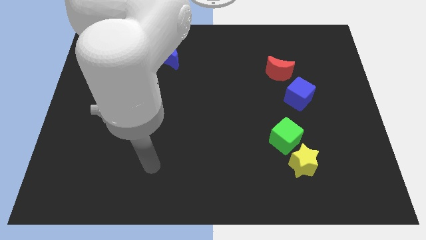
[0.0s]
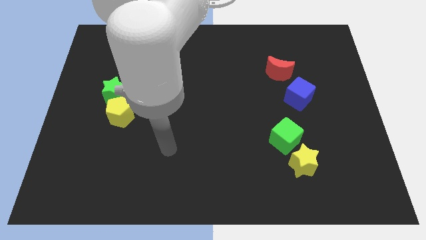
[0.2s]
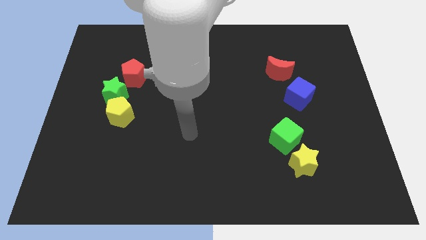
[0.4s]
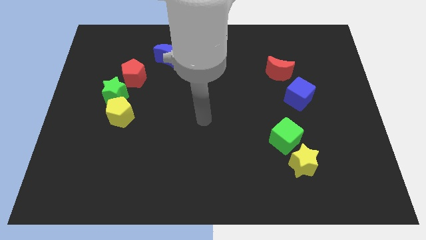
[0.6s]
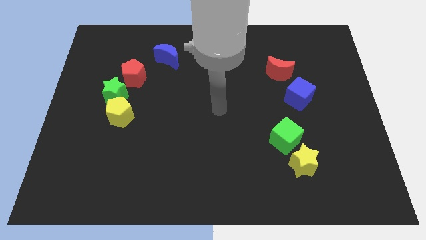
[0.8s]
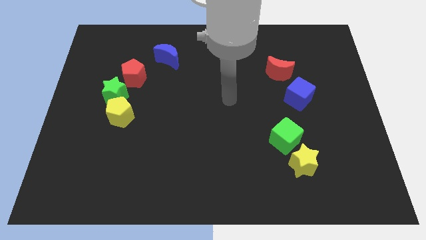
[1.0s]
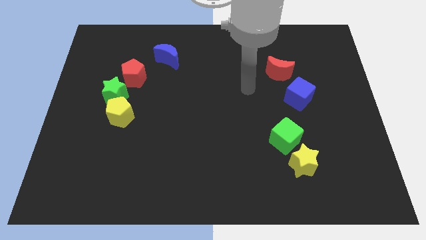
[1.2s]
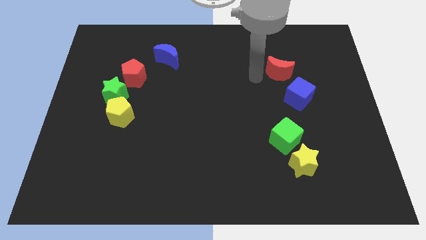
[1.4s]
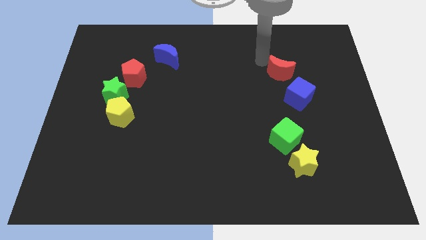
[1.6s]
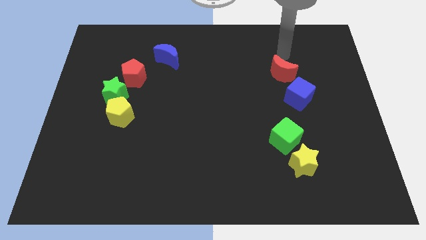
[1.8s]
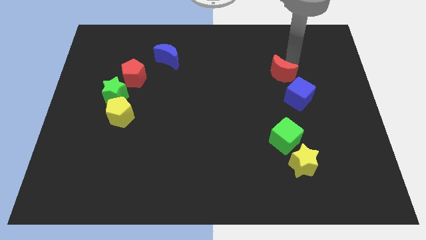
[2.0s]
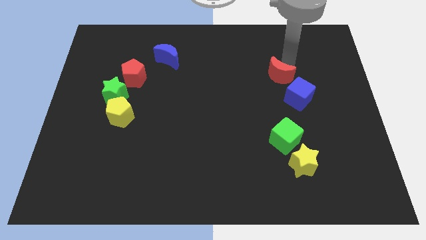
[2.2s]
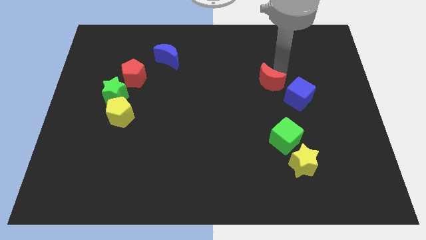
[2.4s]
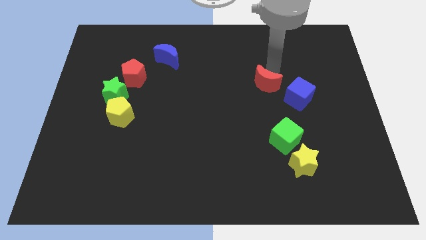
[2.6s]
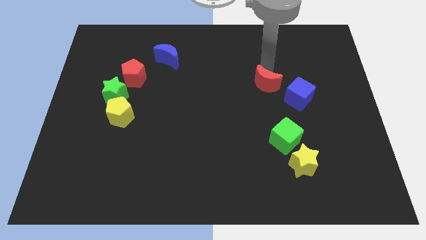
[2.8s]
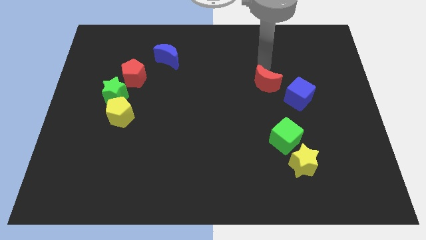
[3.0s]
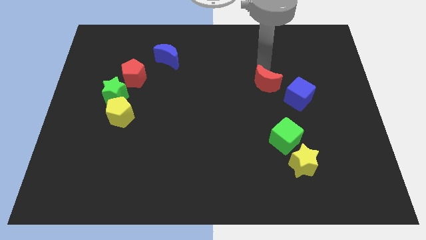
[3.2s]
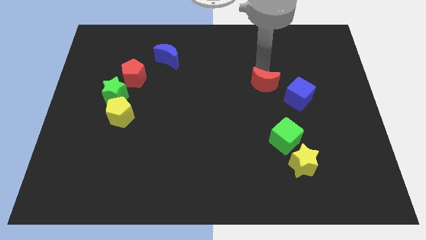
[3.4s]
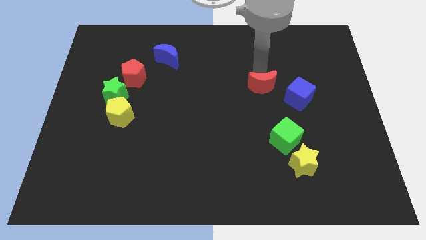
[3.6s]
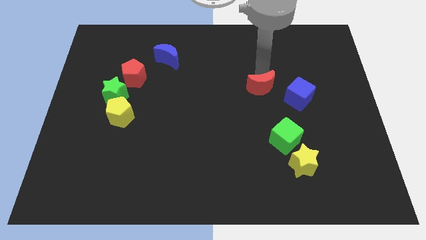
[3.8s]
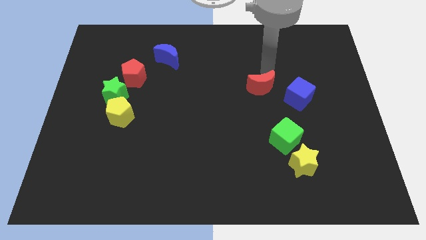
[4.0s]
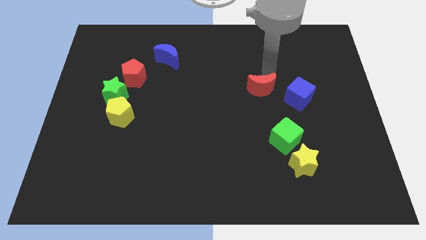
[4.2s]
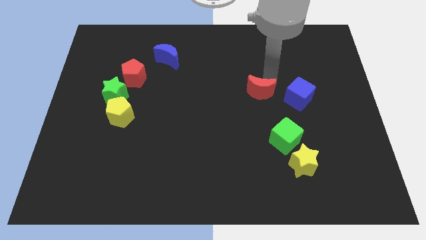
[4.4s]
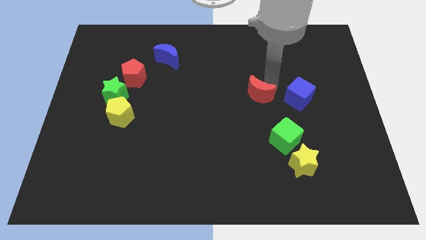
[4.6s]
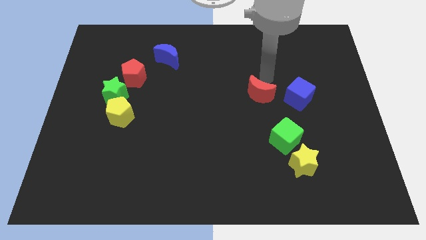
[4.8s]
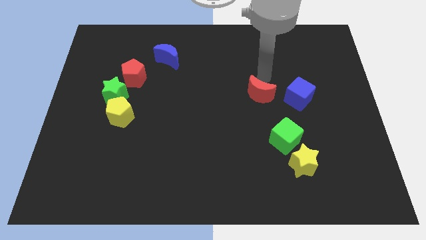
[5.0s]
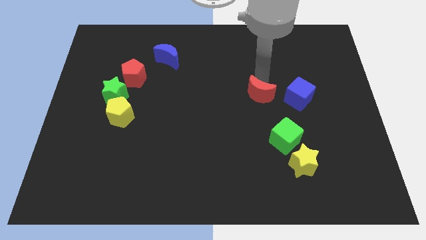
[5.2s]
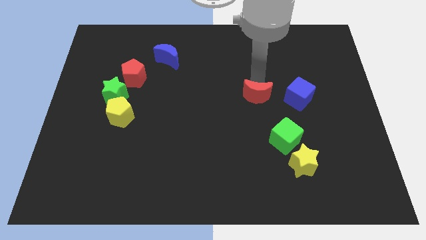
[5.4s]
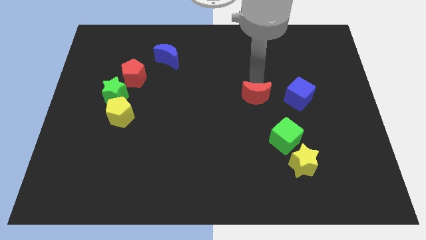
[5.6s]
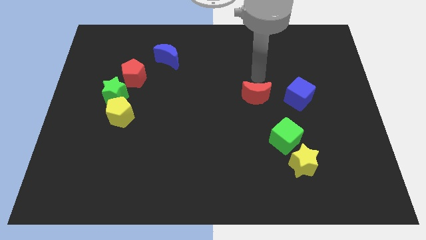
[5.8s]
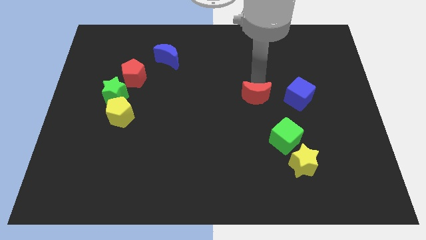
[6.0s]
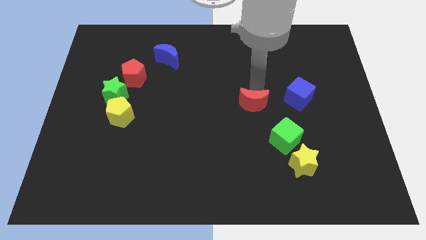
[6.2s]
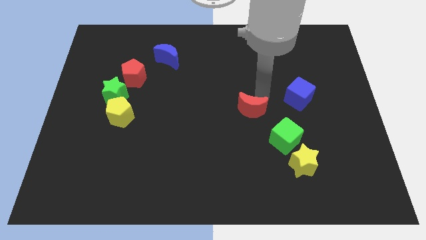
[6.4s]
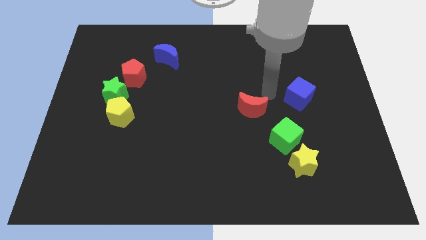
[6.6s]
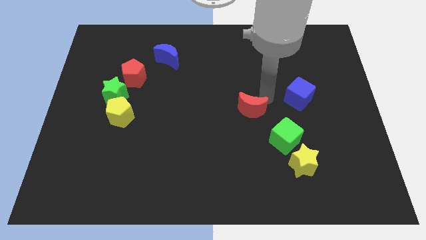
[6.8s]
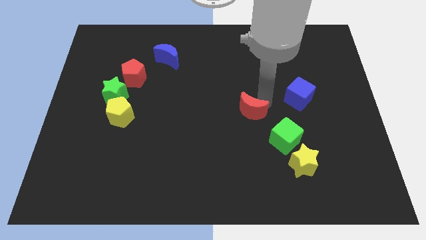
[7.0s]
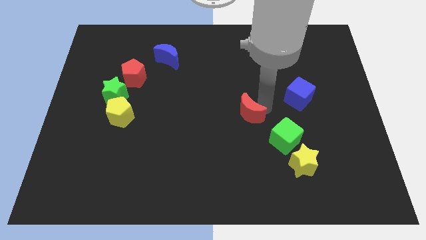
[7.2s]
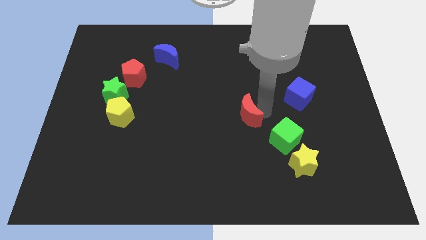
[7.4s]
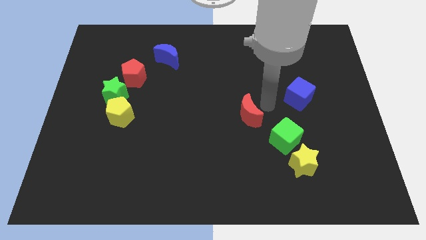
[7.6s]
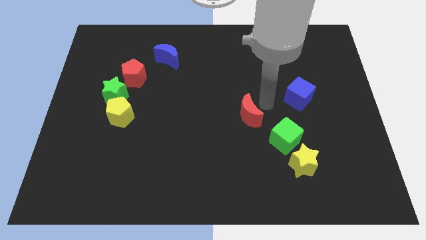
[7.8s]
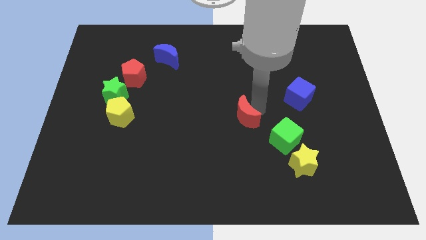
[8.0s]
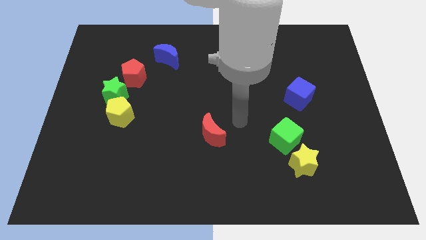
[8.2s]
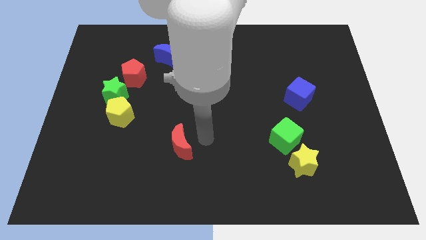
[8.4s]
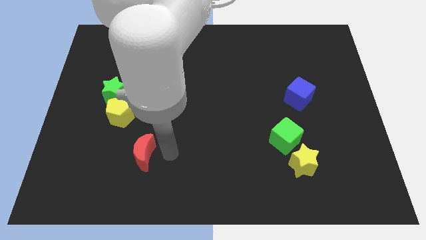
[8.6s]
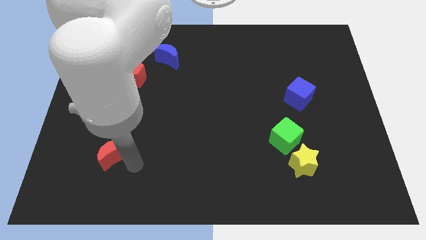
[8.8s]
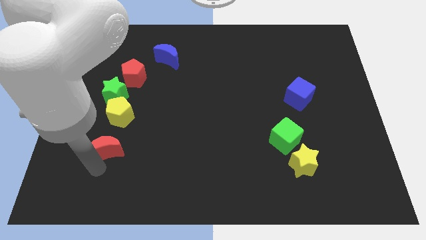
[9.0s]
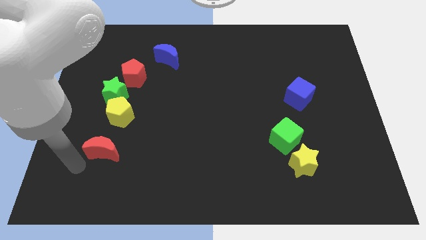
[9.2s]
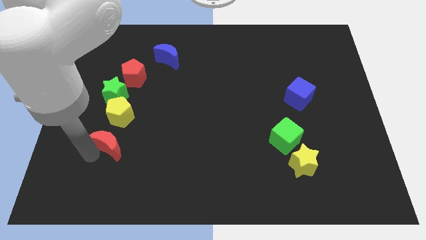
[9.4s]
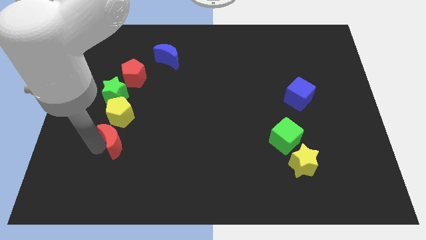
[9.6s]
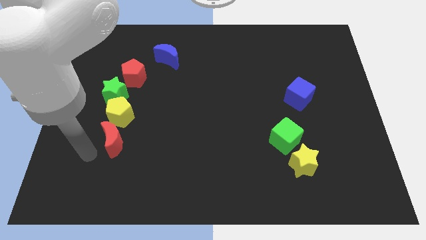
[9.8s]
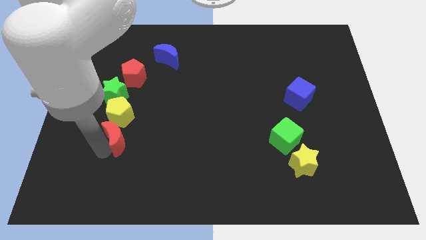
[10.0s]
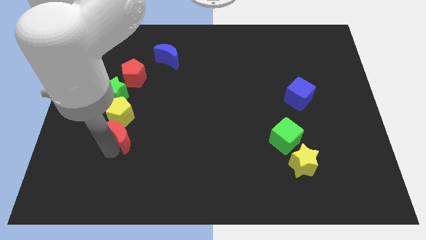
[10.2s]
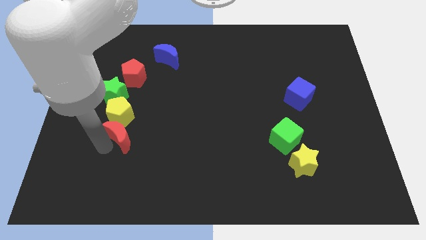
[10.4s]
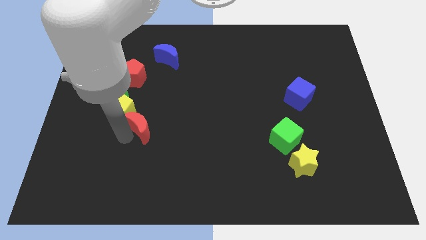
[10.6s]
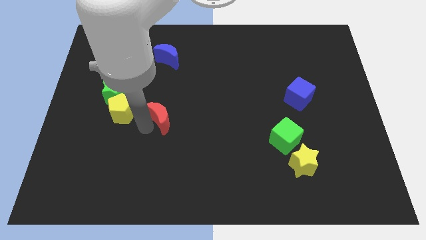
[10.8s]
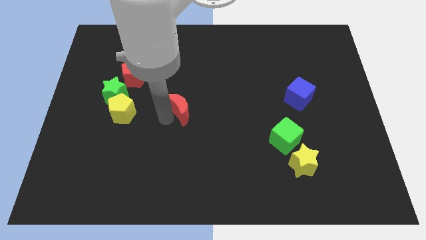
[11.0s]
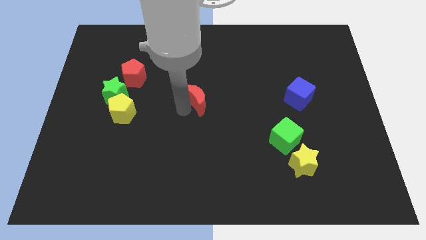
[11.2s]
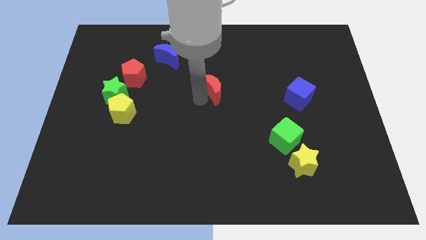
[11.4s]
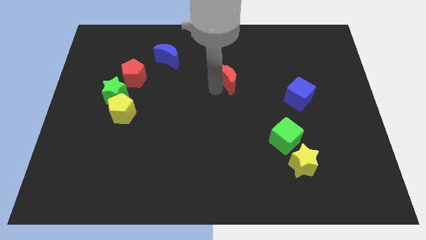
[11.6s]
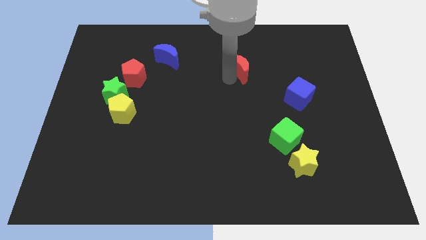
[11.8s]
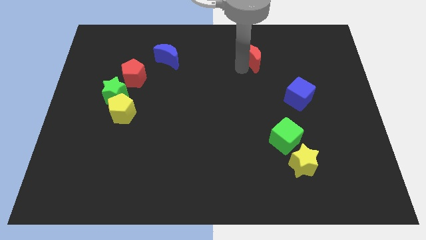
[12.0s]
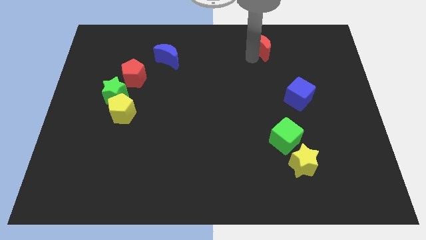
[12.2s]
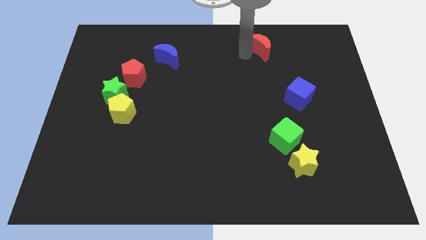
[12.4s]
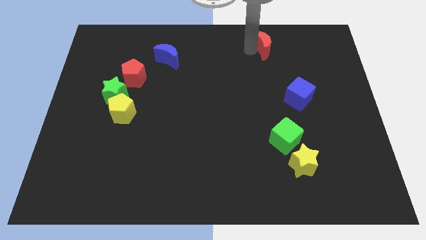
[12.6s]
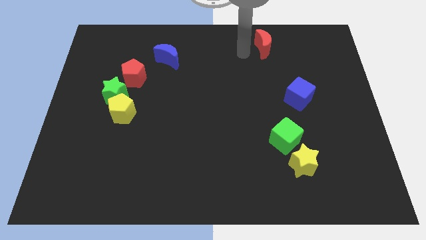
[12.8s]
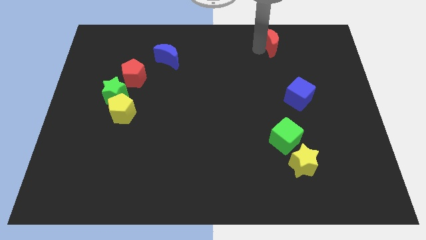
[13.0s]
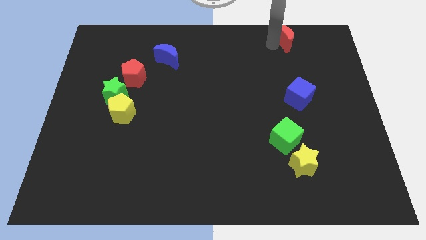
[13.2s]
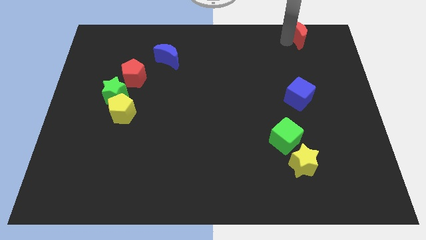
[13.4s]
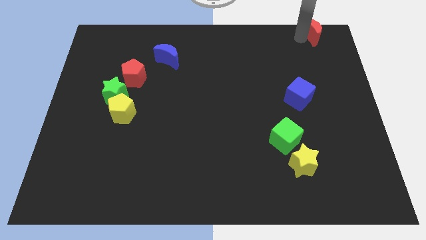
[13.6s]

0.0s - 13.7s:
push the red moon to the top right corner

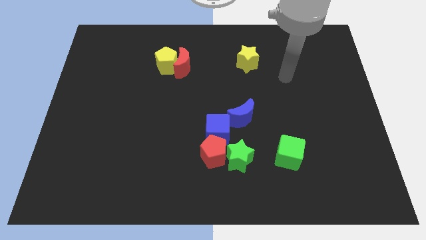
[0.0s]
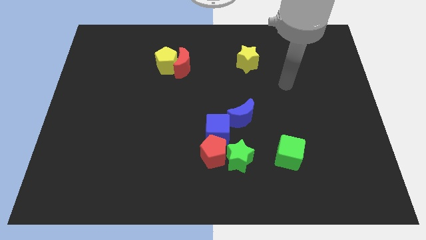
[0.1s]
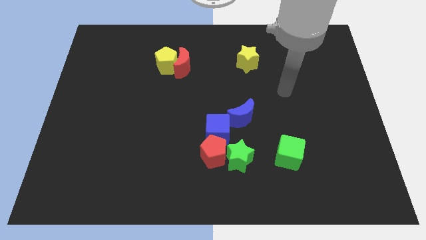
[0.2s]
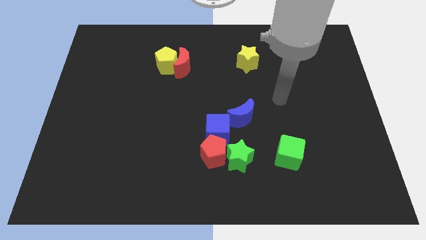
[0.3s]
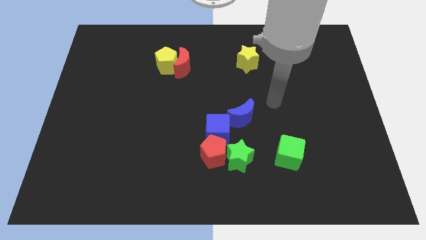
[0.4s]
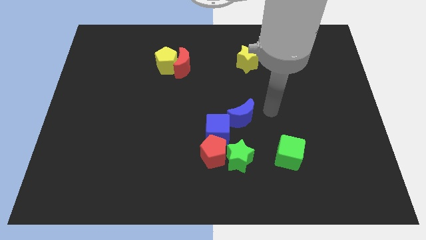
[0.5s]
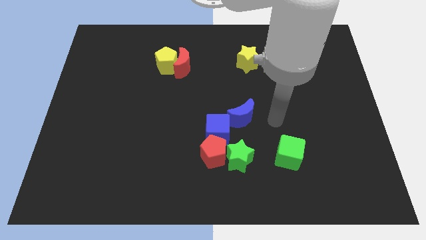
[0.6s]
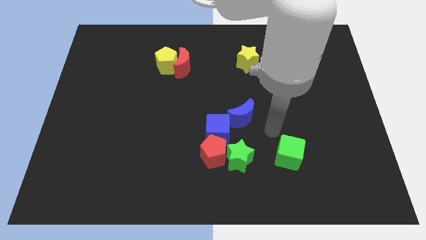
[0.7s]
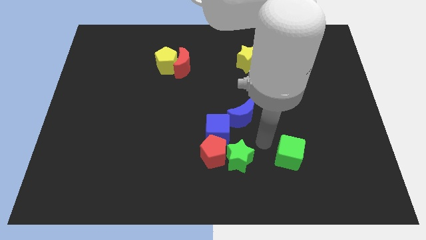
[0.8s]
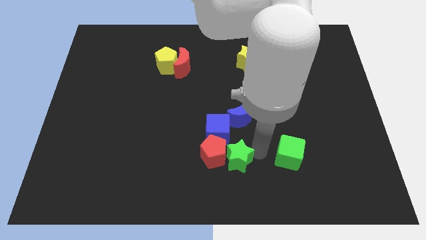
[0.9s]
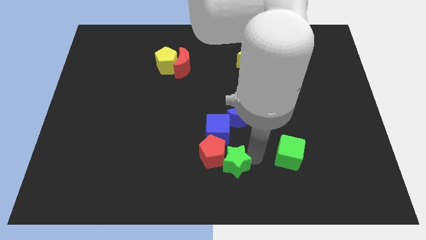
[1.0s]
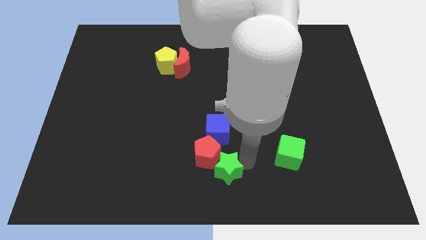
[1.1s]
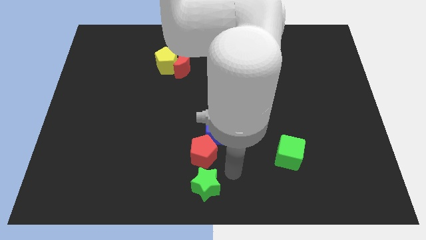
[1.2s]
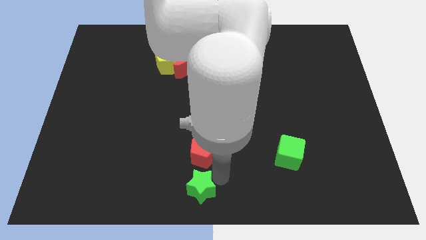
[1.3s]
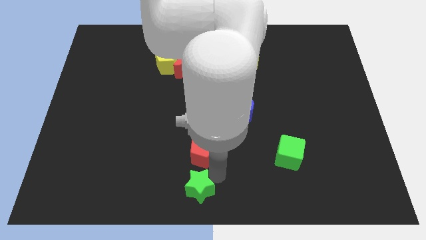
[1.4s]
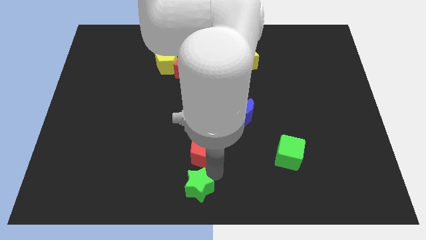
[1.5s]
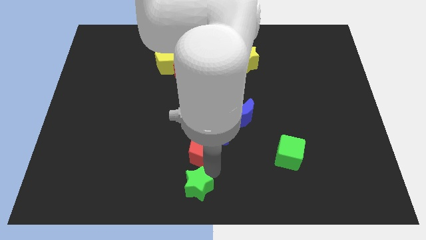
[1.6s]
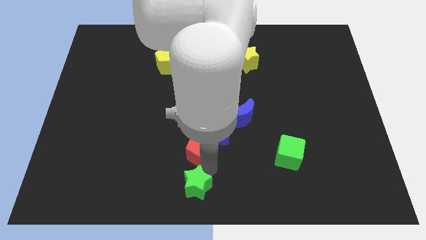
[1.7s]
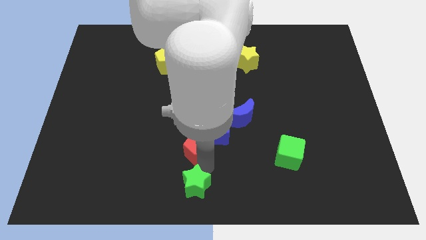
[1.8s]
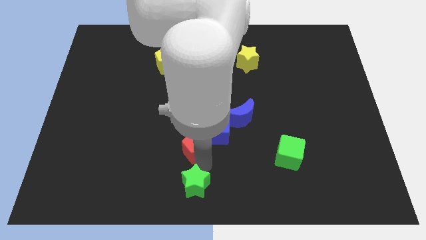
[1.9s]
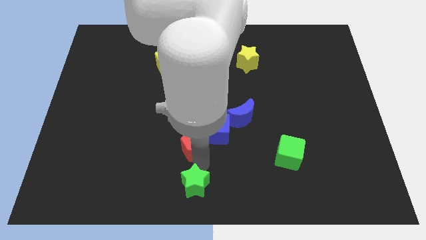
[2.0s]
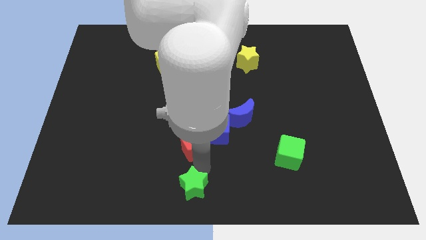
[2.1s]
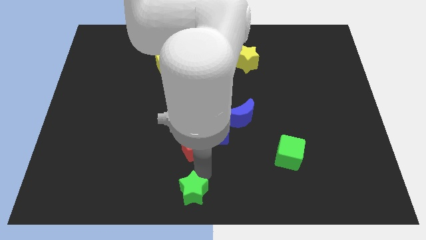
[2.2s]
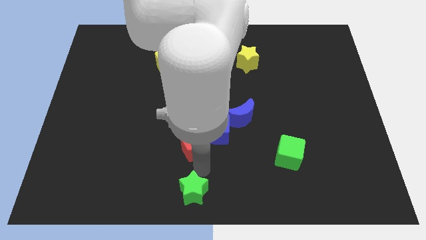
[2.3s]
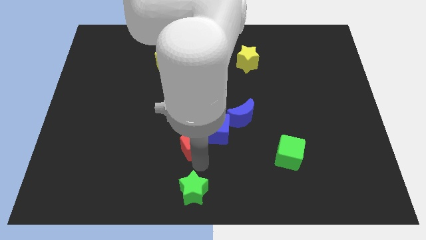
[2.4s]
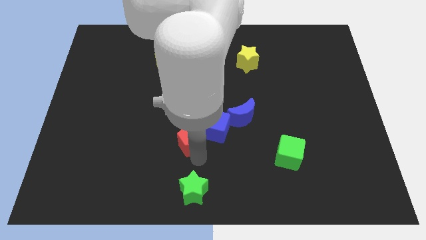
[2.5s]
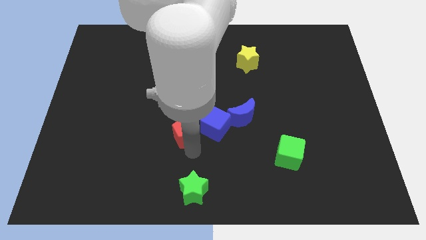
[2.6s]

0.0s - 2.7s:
slide the red pentagon to the center of the board
